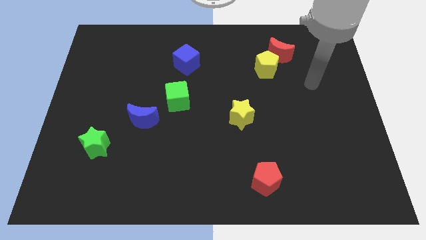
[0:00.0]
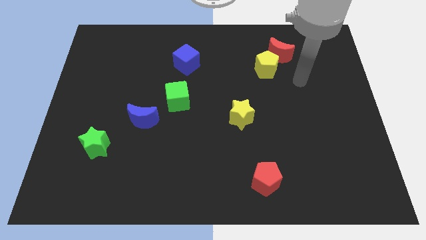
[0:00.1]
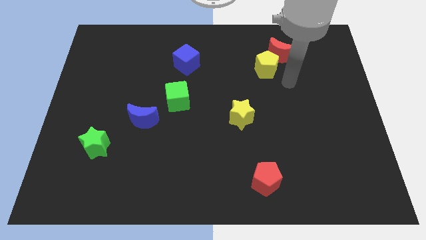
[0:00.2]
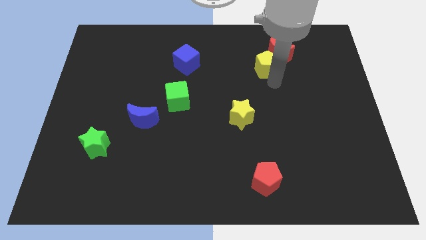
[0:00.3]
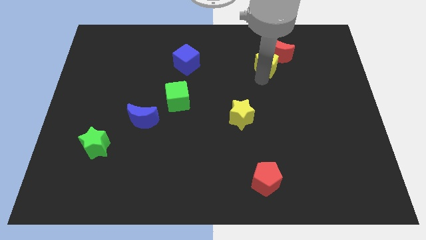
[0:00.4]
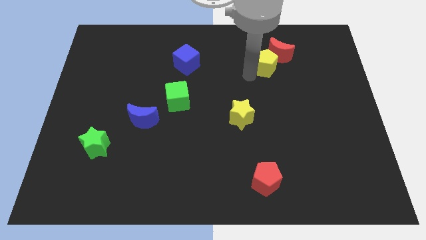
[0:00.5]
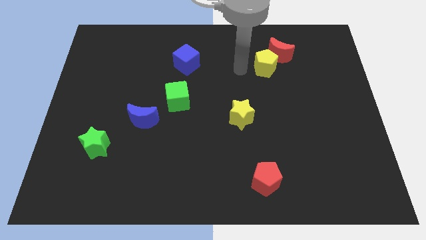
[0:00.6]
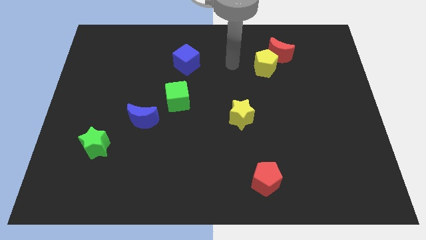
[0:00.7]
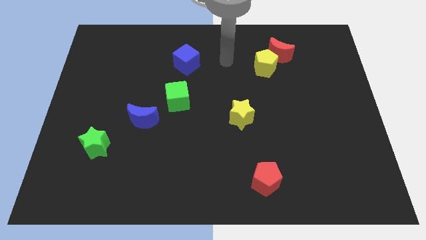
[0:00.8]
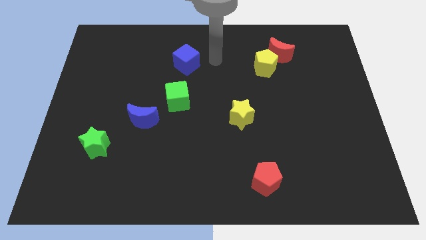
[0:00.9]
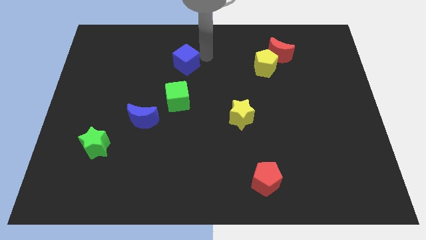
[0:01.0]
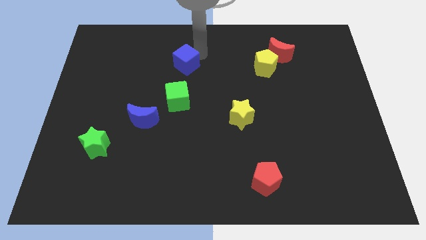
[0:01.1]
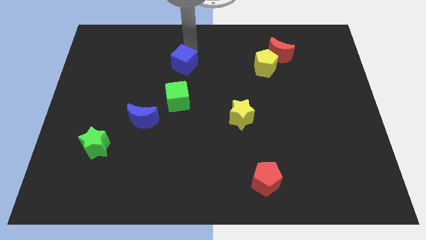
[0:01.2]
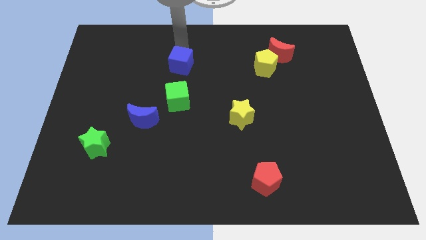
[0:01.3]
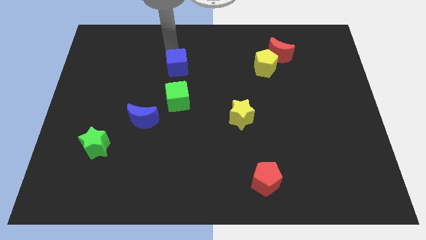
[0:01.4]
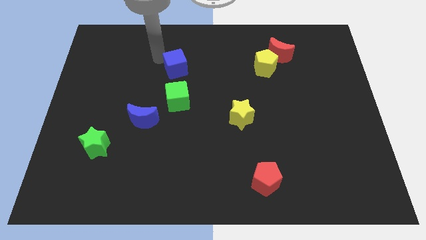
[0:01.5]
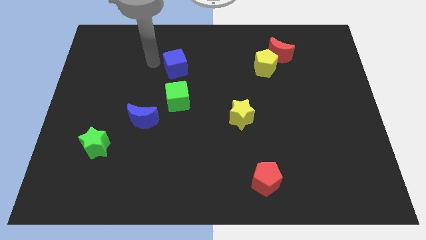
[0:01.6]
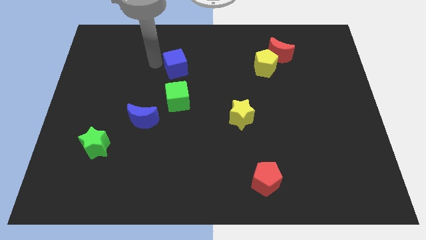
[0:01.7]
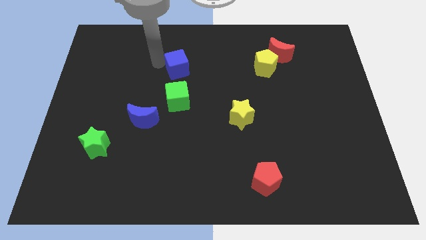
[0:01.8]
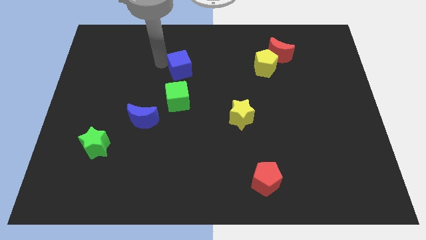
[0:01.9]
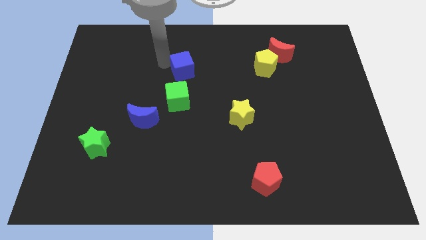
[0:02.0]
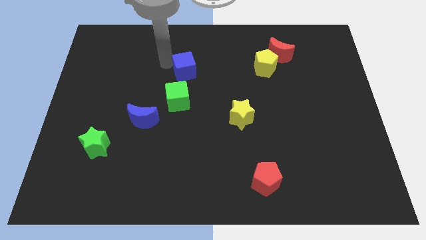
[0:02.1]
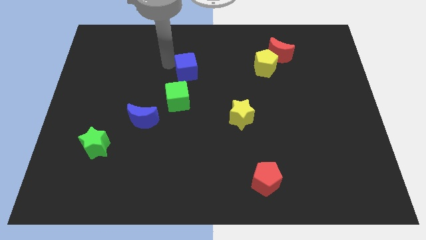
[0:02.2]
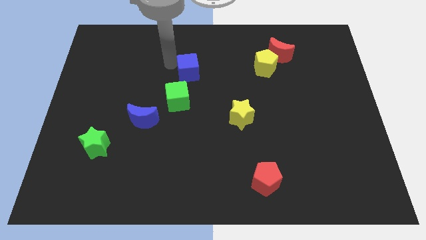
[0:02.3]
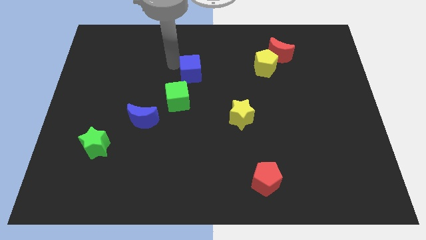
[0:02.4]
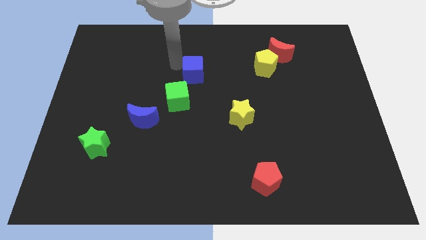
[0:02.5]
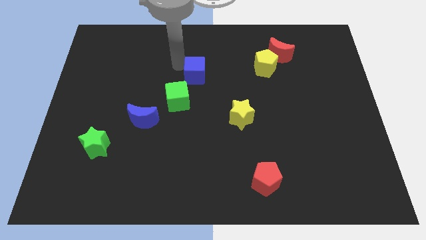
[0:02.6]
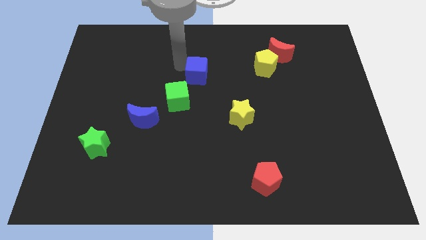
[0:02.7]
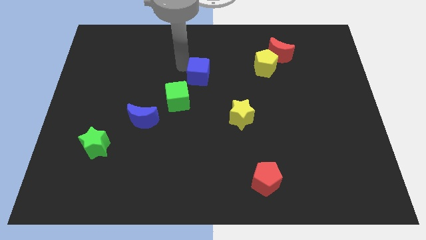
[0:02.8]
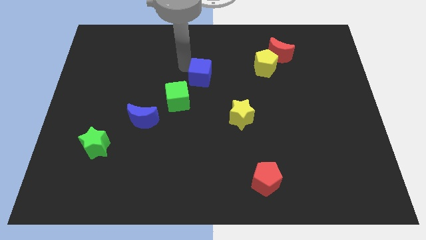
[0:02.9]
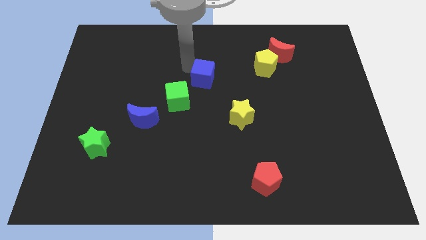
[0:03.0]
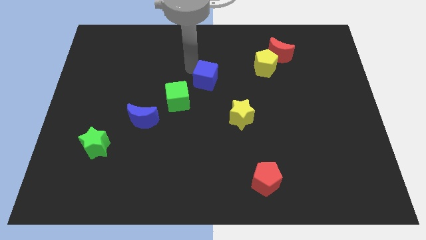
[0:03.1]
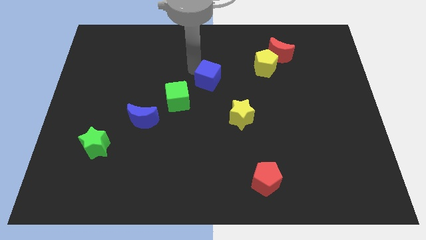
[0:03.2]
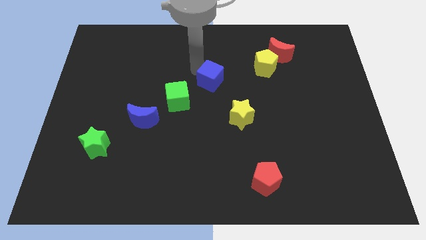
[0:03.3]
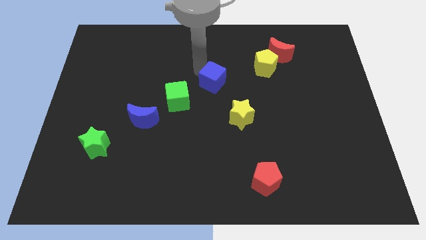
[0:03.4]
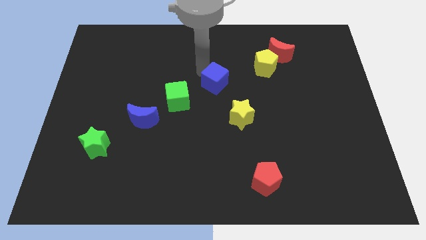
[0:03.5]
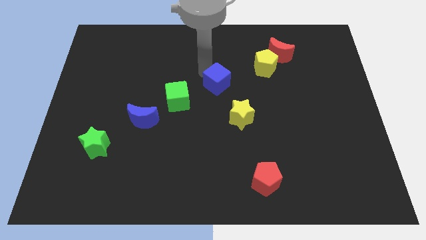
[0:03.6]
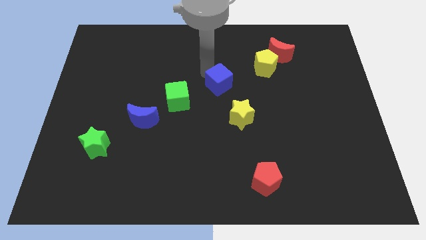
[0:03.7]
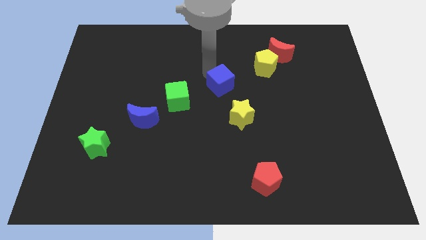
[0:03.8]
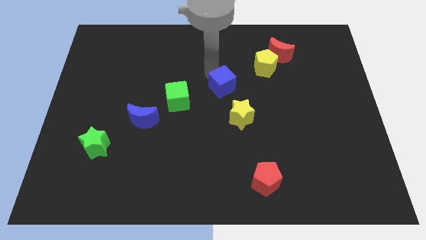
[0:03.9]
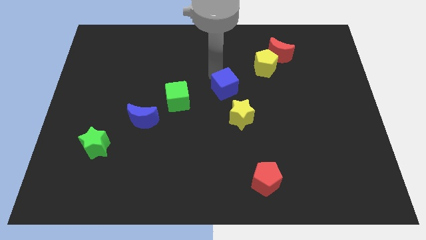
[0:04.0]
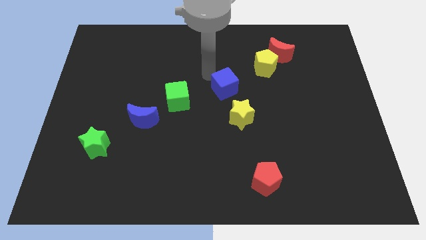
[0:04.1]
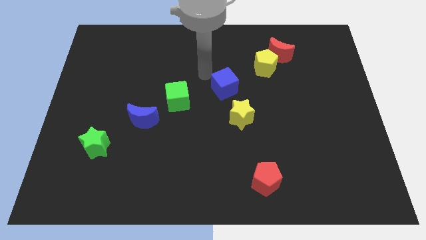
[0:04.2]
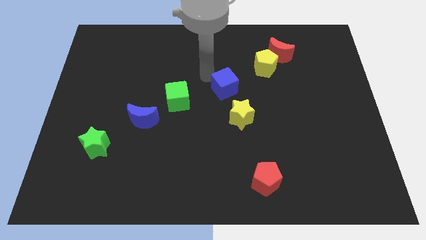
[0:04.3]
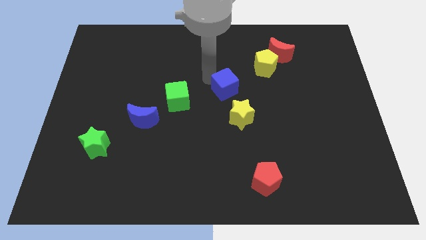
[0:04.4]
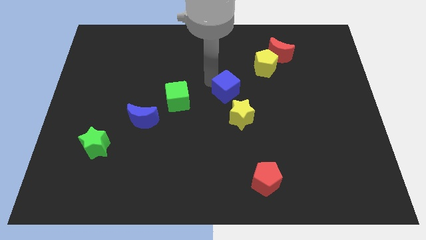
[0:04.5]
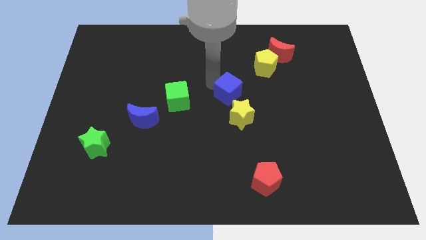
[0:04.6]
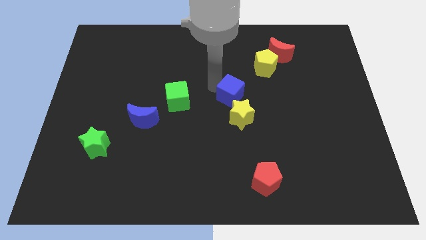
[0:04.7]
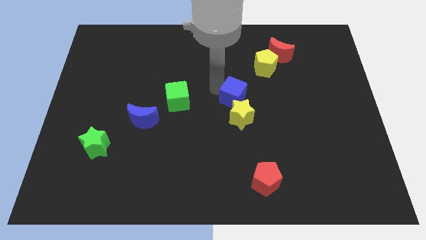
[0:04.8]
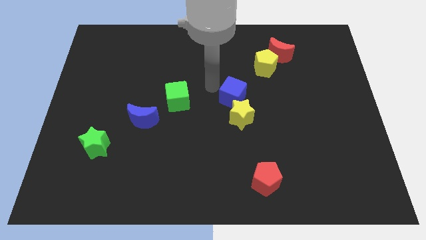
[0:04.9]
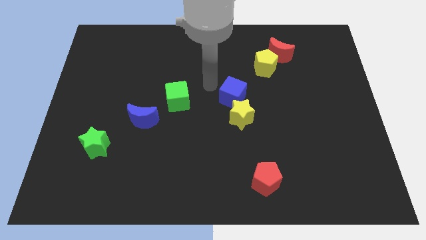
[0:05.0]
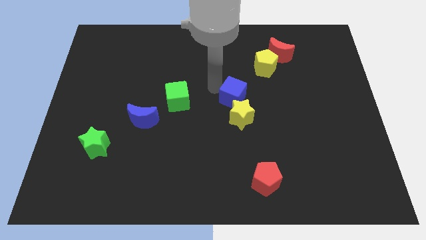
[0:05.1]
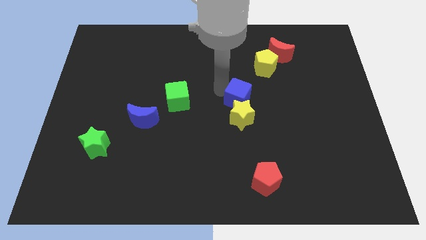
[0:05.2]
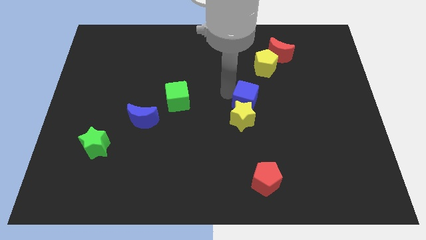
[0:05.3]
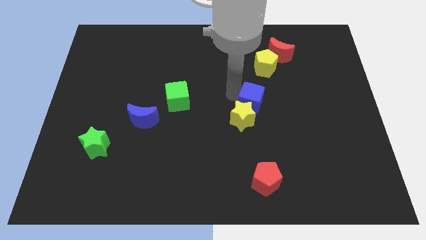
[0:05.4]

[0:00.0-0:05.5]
slide the blue cube diagonally down and right

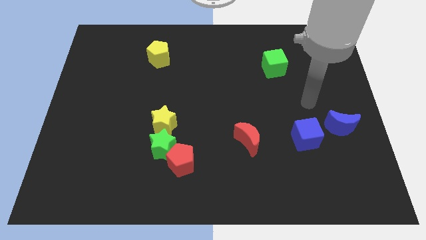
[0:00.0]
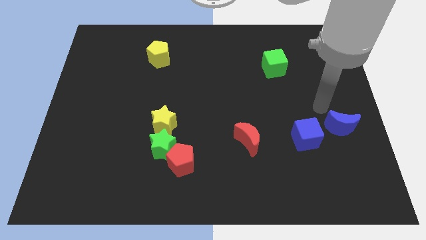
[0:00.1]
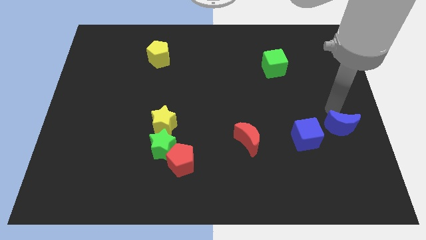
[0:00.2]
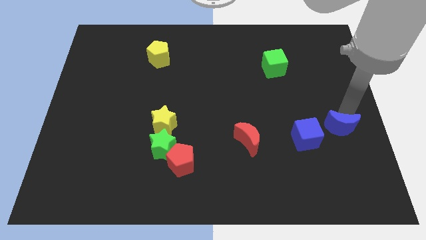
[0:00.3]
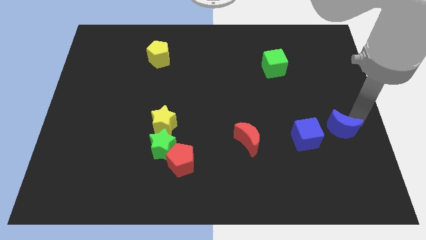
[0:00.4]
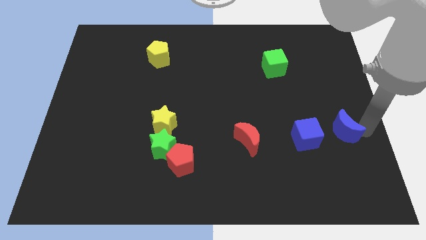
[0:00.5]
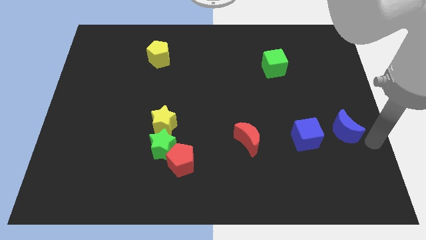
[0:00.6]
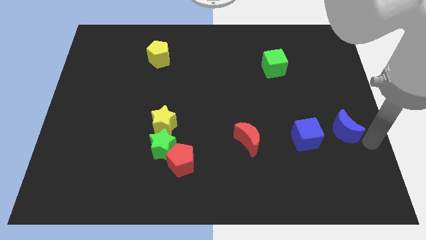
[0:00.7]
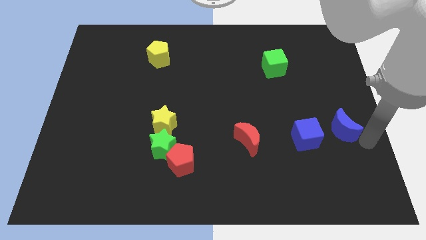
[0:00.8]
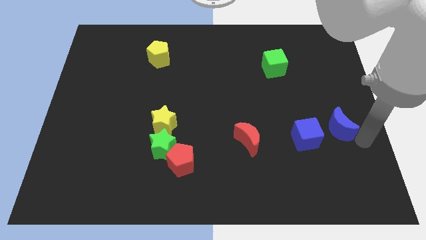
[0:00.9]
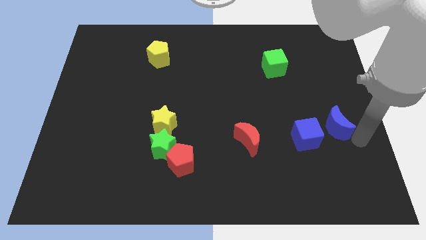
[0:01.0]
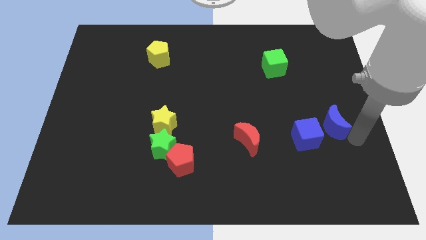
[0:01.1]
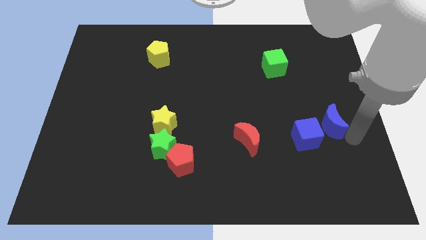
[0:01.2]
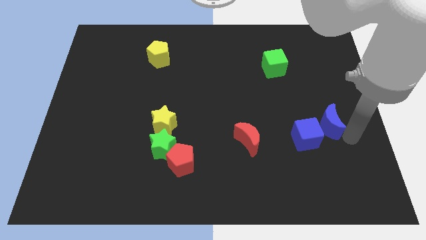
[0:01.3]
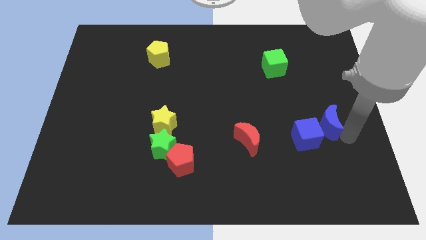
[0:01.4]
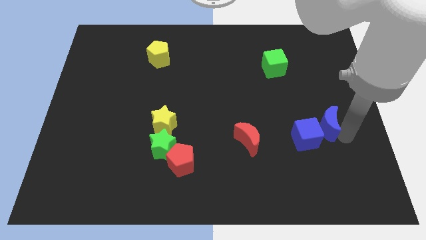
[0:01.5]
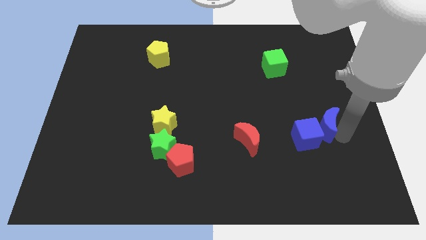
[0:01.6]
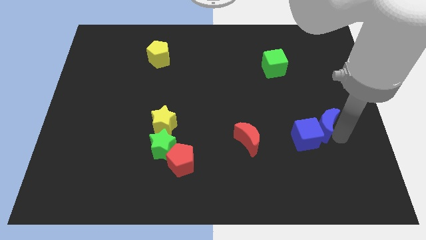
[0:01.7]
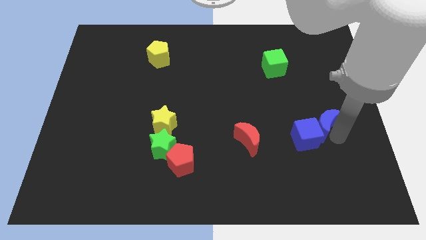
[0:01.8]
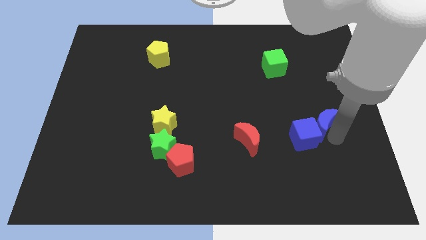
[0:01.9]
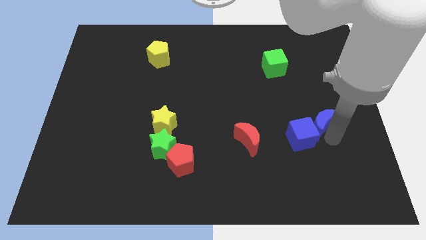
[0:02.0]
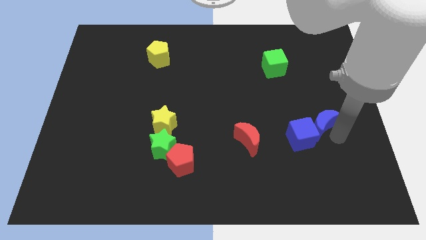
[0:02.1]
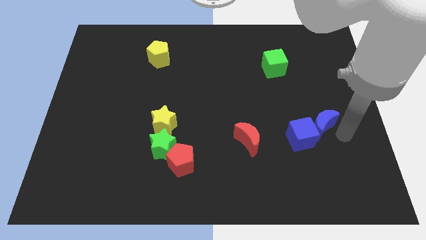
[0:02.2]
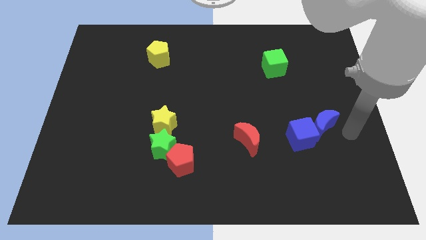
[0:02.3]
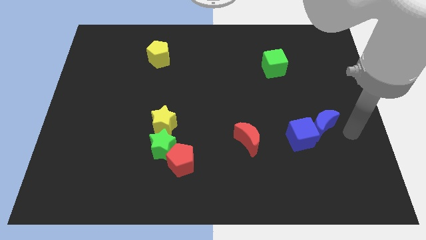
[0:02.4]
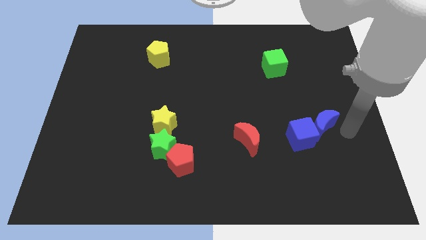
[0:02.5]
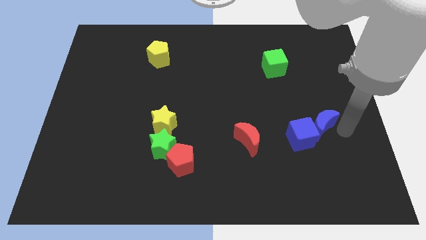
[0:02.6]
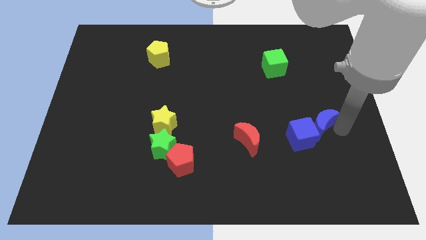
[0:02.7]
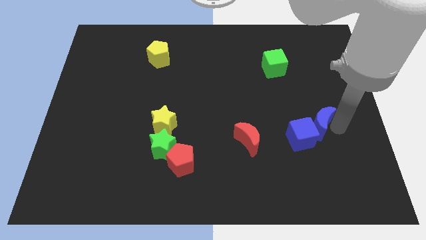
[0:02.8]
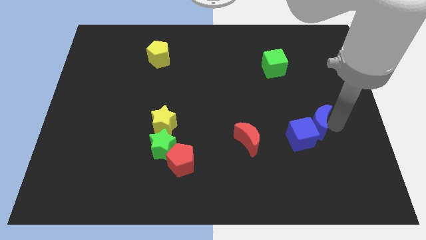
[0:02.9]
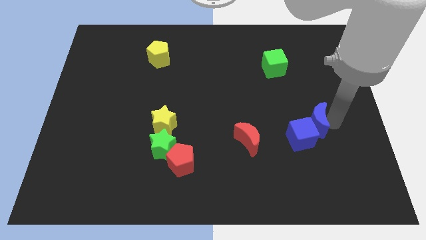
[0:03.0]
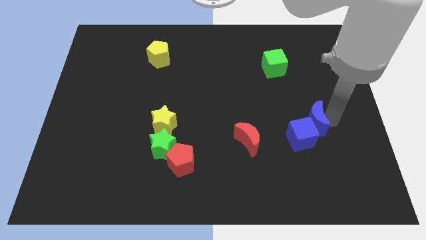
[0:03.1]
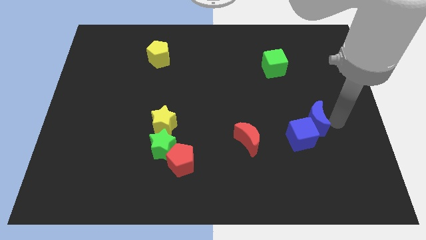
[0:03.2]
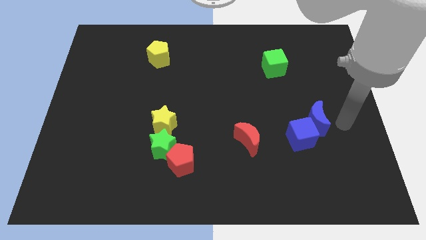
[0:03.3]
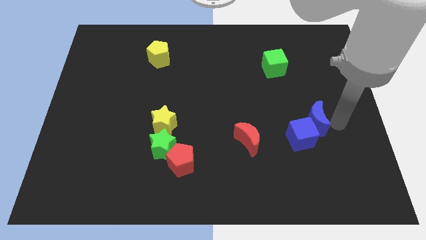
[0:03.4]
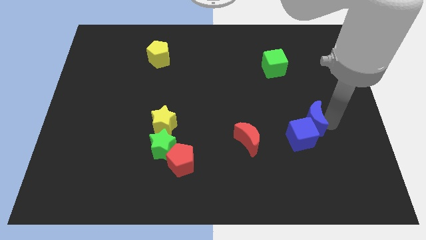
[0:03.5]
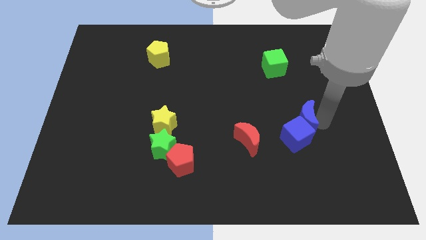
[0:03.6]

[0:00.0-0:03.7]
slightly move the blue moon left
